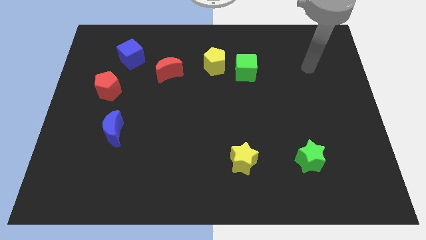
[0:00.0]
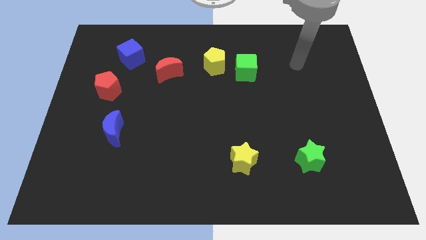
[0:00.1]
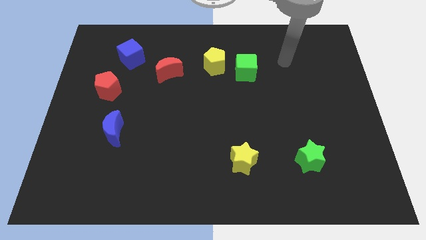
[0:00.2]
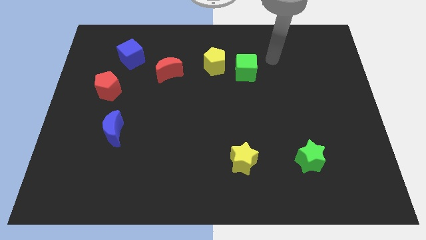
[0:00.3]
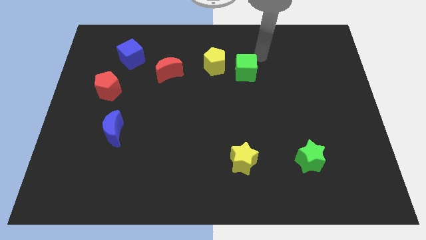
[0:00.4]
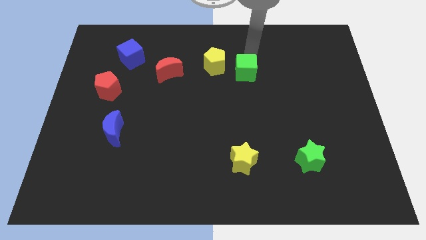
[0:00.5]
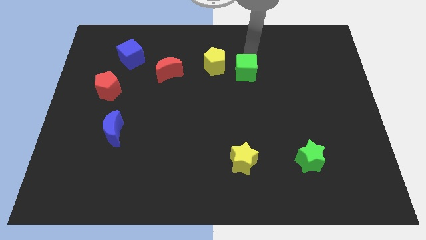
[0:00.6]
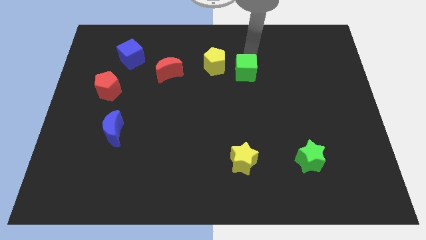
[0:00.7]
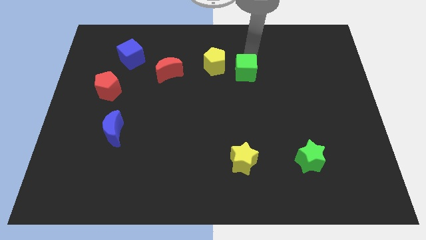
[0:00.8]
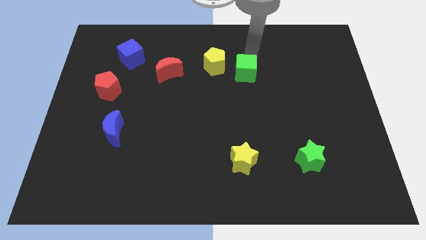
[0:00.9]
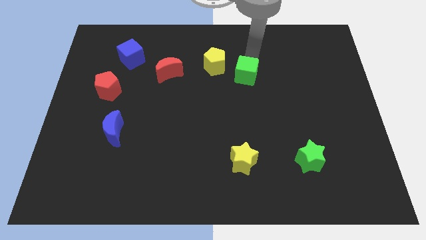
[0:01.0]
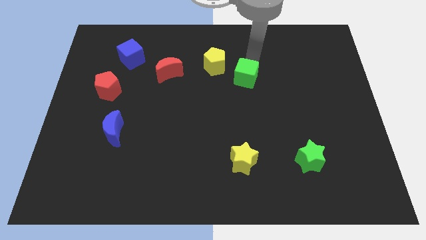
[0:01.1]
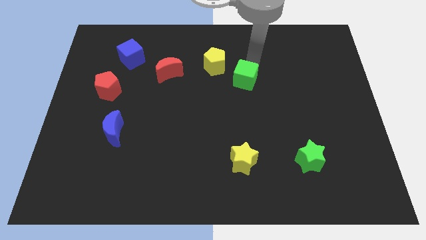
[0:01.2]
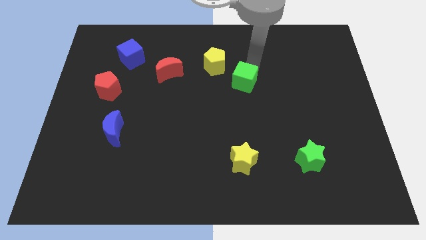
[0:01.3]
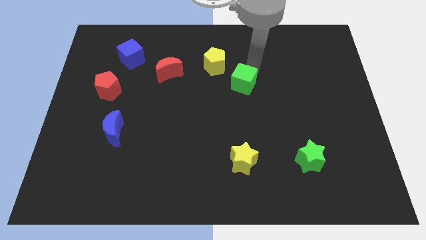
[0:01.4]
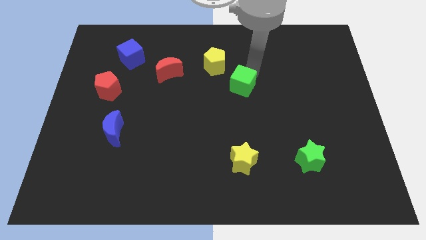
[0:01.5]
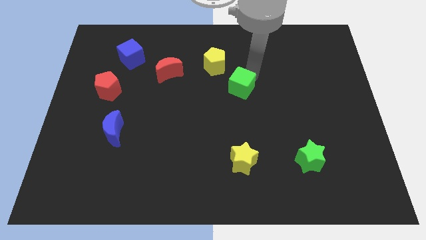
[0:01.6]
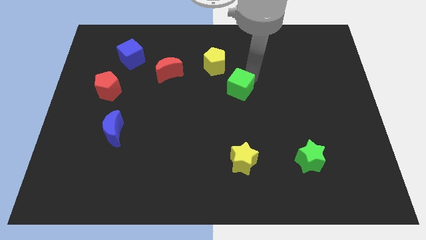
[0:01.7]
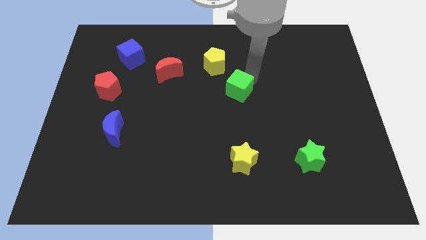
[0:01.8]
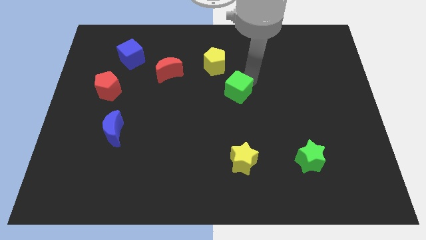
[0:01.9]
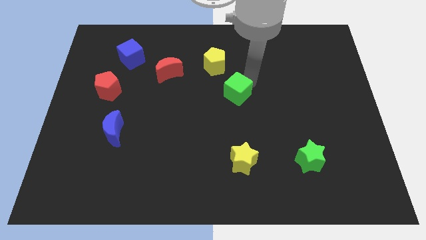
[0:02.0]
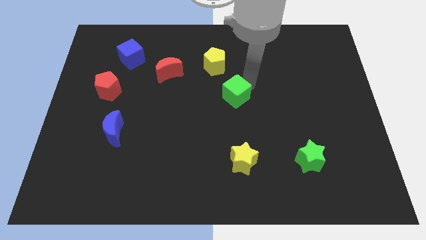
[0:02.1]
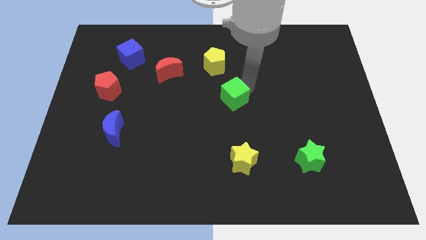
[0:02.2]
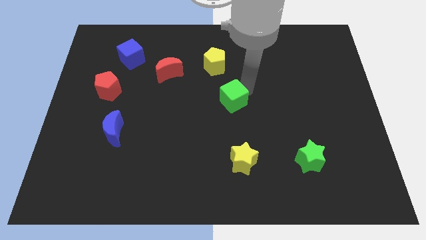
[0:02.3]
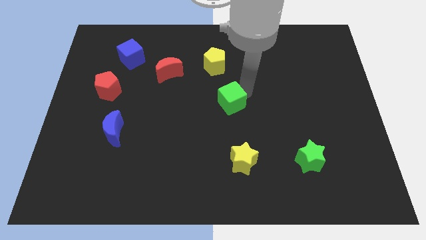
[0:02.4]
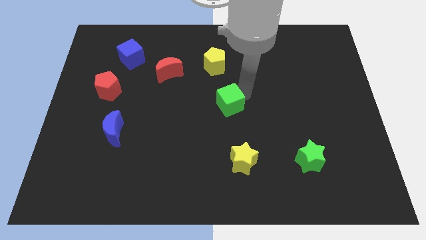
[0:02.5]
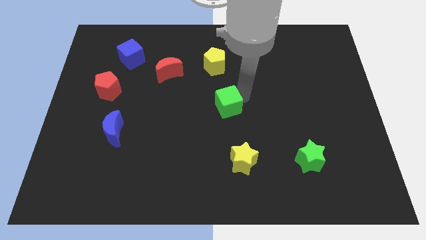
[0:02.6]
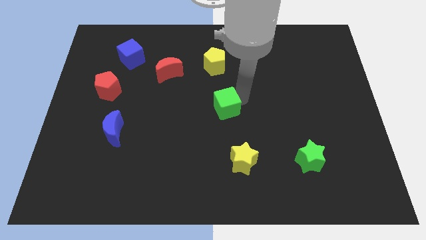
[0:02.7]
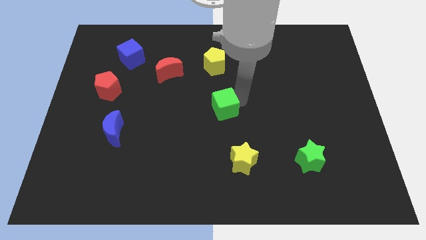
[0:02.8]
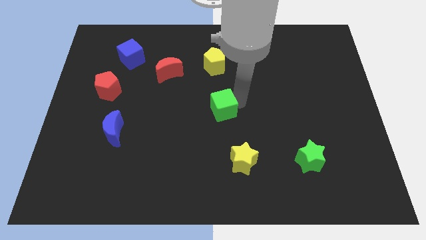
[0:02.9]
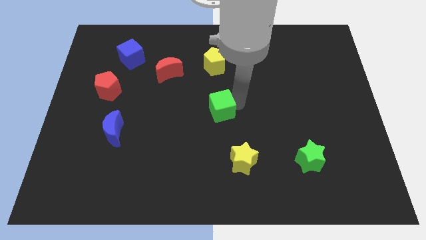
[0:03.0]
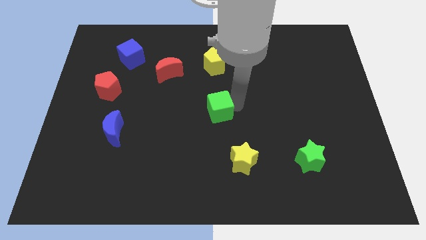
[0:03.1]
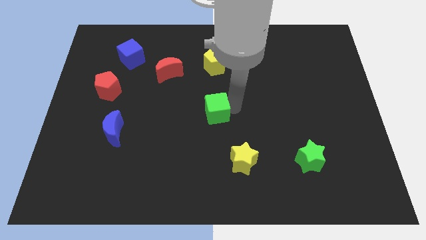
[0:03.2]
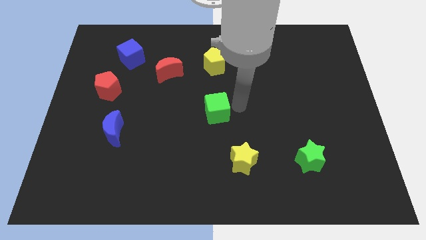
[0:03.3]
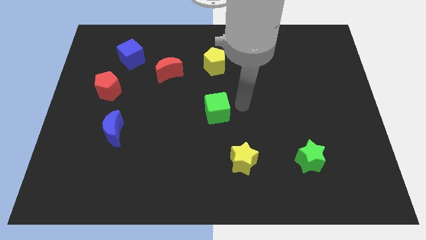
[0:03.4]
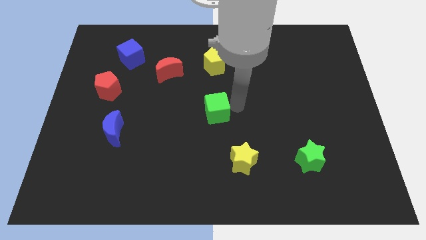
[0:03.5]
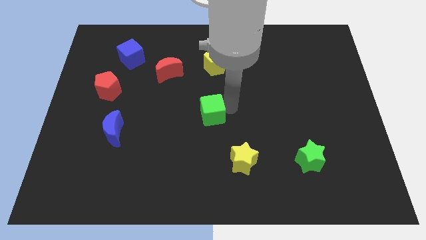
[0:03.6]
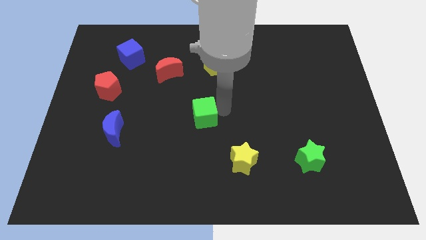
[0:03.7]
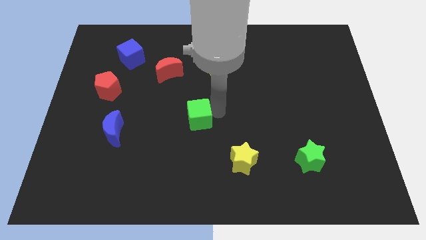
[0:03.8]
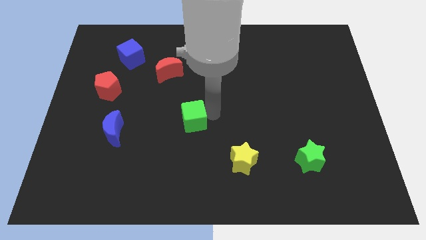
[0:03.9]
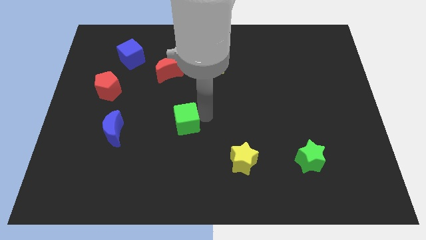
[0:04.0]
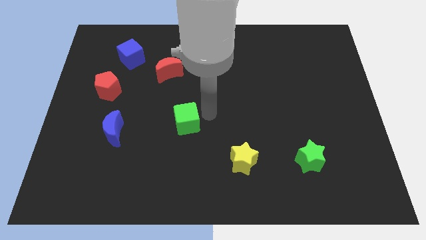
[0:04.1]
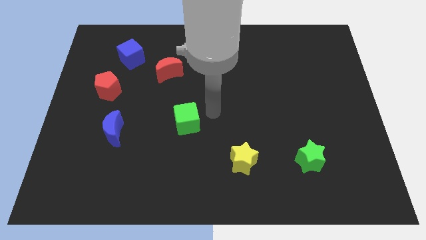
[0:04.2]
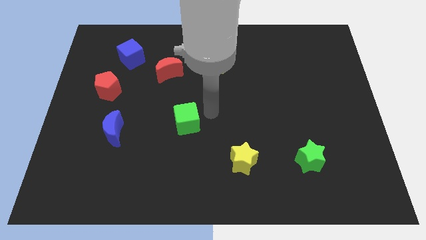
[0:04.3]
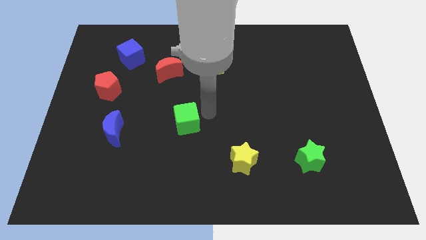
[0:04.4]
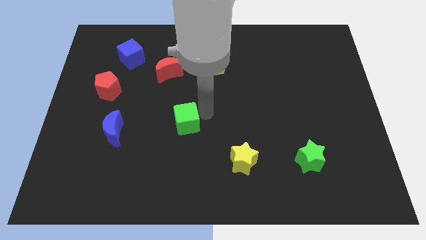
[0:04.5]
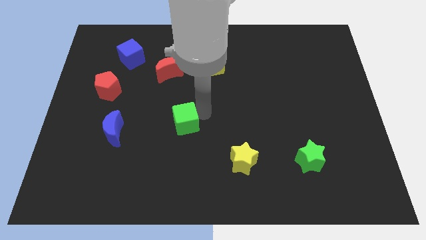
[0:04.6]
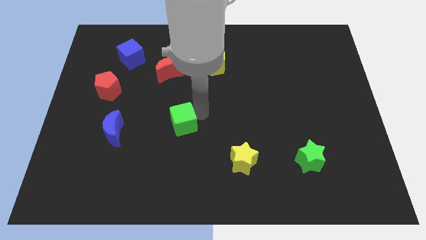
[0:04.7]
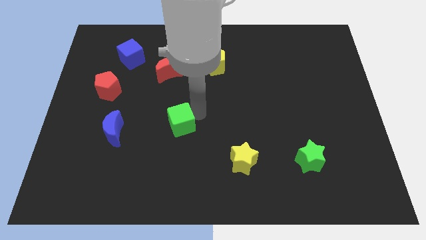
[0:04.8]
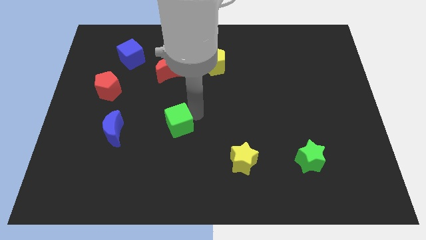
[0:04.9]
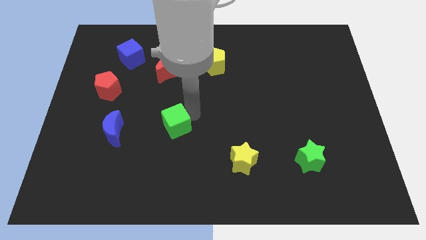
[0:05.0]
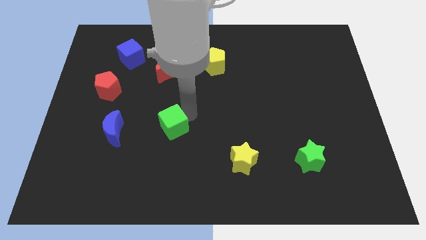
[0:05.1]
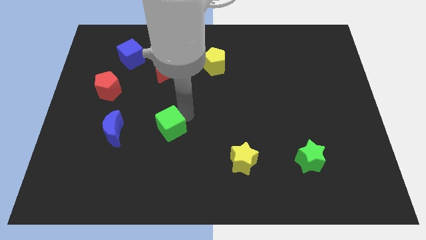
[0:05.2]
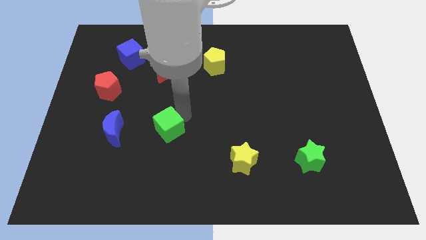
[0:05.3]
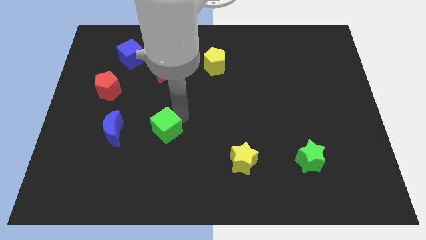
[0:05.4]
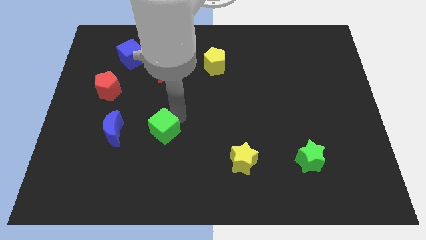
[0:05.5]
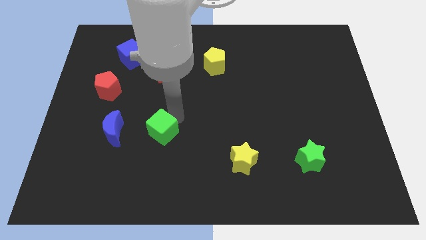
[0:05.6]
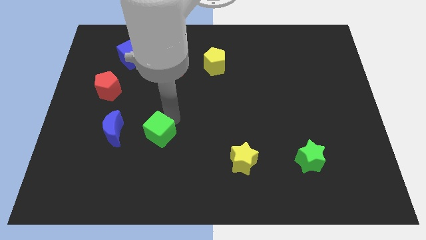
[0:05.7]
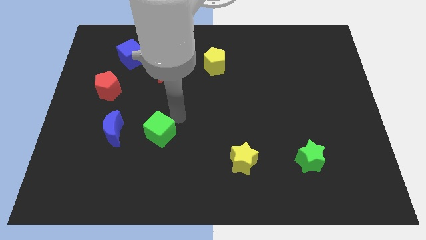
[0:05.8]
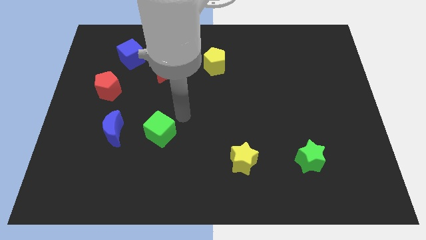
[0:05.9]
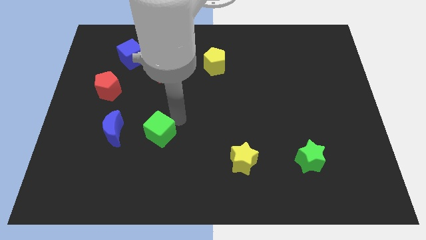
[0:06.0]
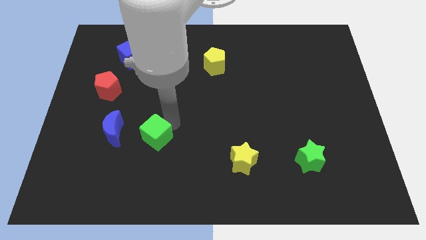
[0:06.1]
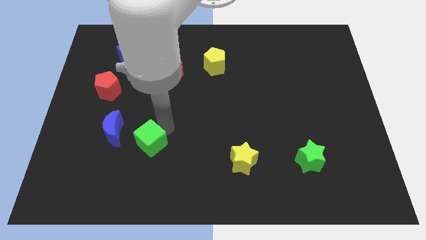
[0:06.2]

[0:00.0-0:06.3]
move the green cube to the bottom right side of the blue moon
